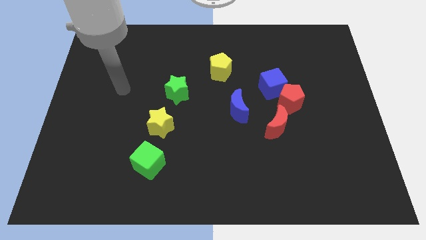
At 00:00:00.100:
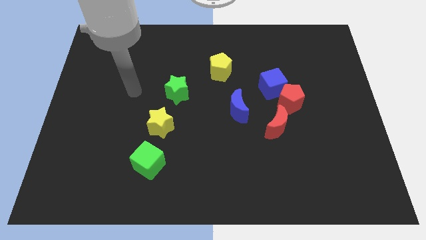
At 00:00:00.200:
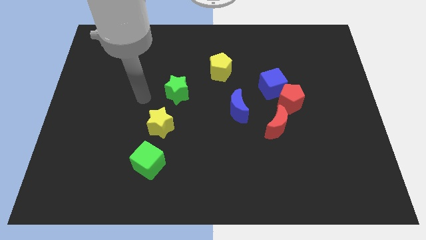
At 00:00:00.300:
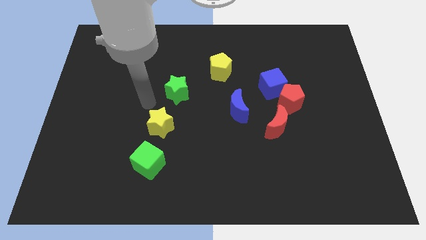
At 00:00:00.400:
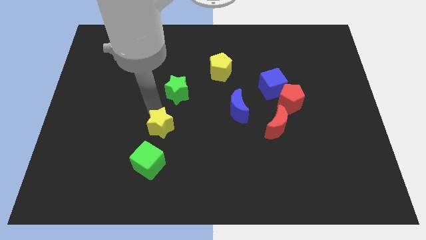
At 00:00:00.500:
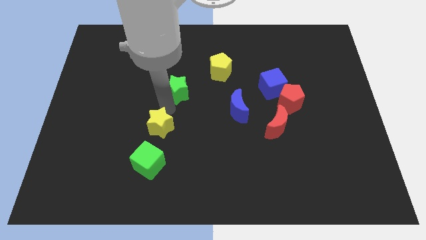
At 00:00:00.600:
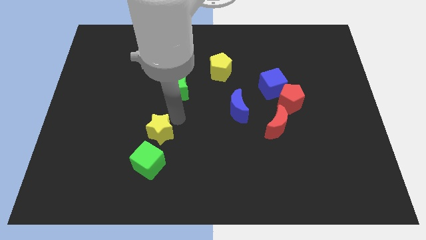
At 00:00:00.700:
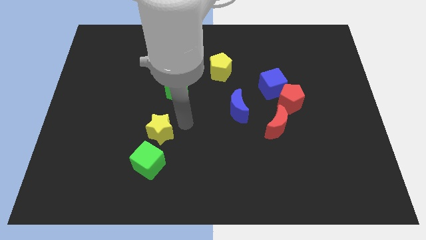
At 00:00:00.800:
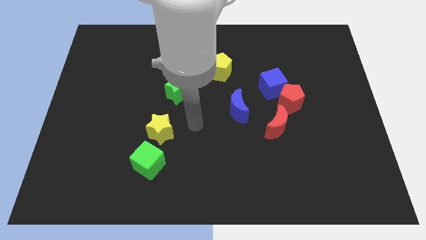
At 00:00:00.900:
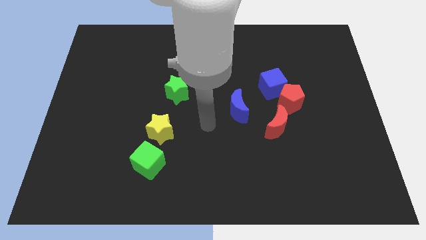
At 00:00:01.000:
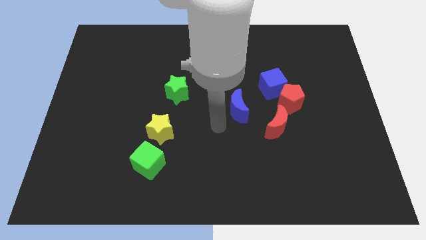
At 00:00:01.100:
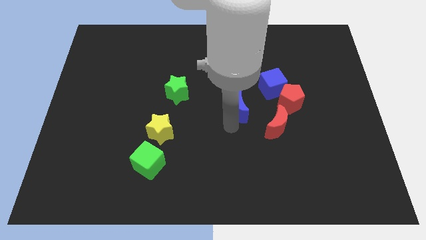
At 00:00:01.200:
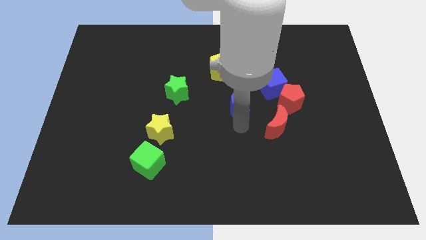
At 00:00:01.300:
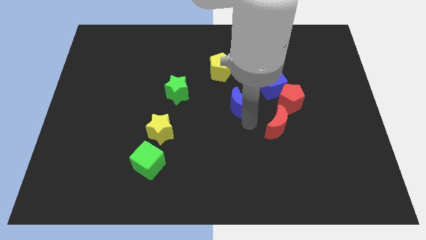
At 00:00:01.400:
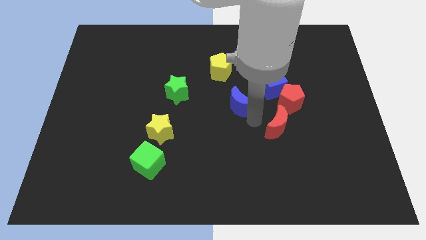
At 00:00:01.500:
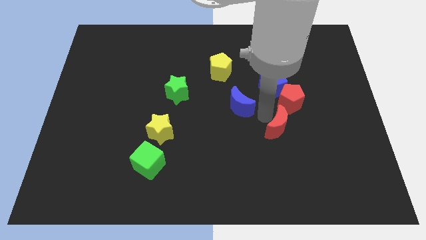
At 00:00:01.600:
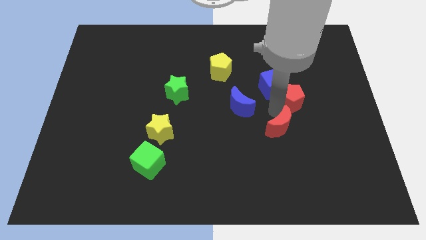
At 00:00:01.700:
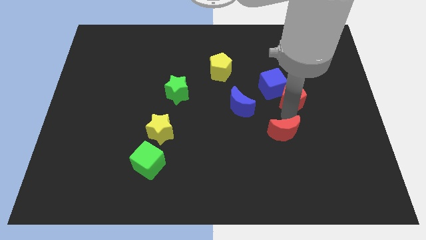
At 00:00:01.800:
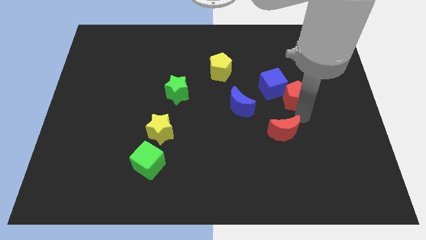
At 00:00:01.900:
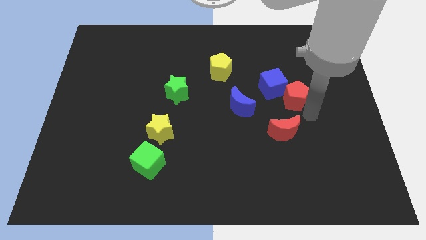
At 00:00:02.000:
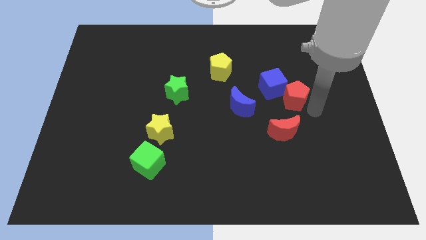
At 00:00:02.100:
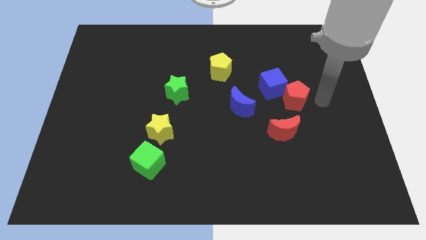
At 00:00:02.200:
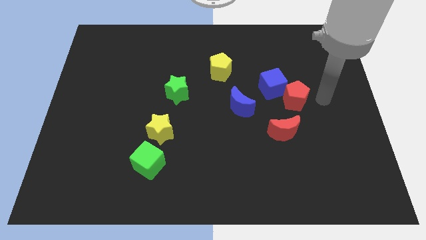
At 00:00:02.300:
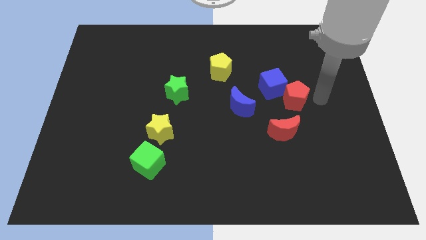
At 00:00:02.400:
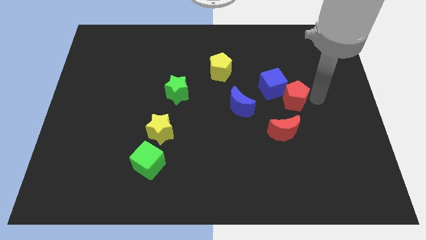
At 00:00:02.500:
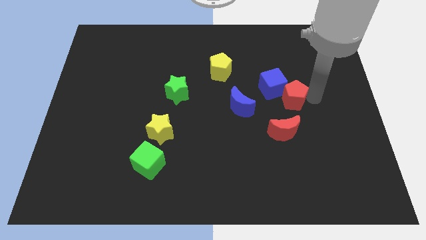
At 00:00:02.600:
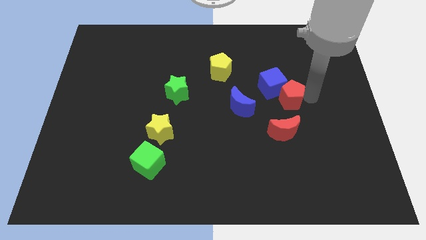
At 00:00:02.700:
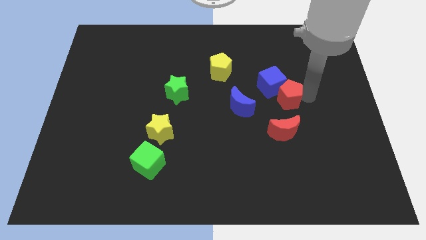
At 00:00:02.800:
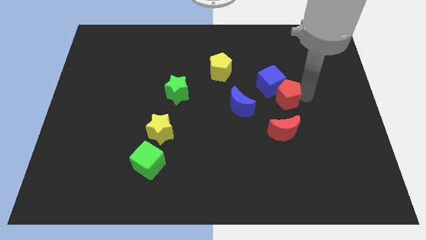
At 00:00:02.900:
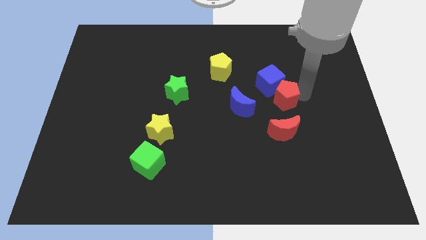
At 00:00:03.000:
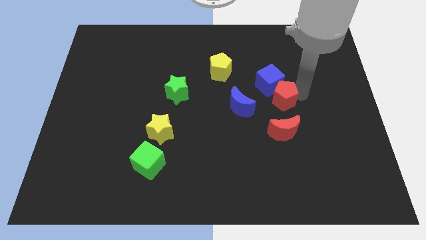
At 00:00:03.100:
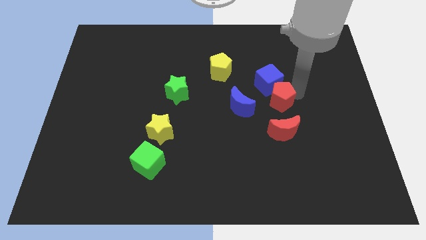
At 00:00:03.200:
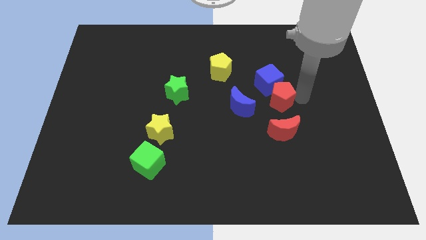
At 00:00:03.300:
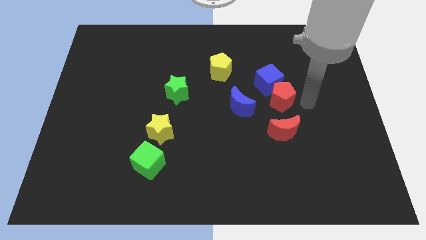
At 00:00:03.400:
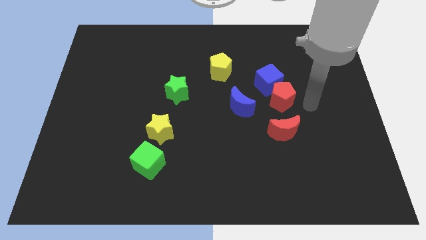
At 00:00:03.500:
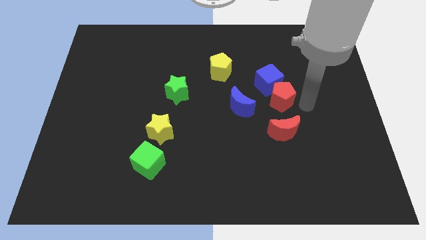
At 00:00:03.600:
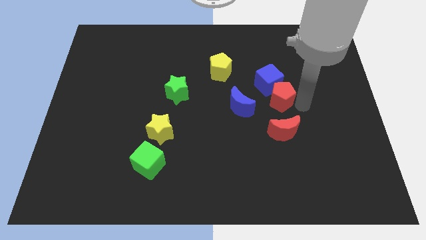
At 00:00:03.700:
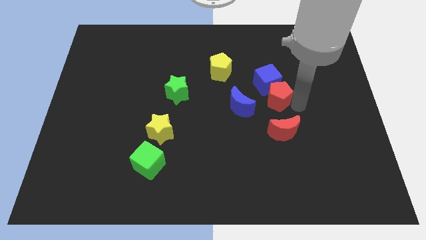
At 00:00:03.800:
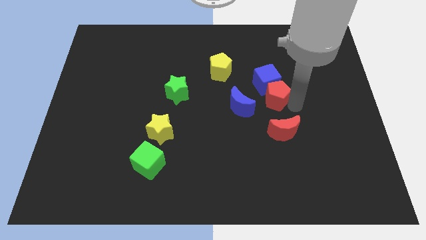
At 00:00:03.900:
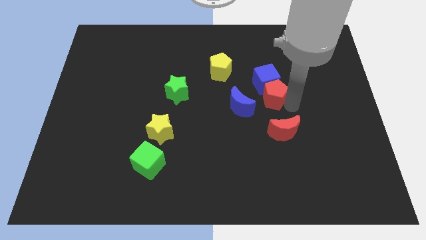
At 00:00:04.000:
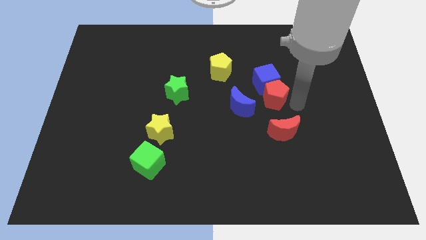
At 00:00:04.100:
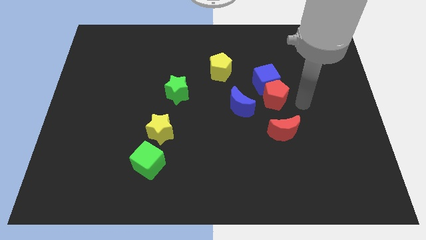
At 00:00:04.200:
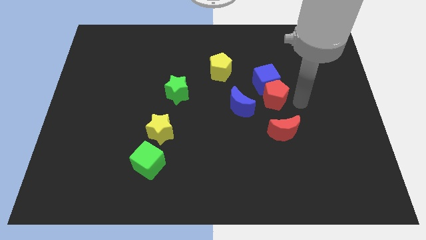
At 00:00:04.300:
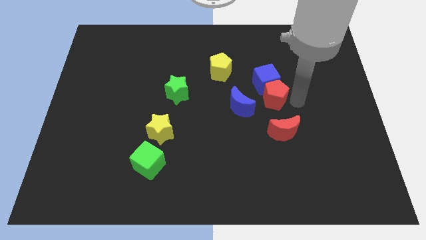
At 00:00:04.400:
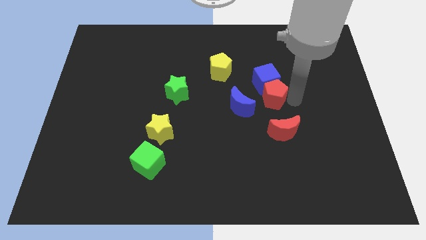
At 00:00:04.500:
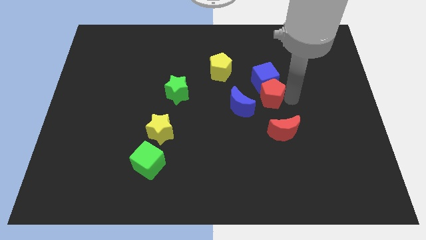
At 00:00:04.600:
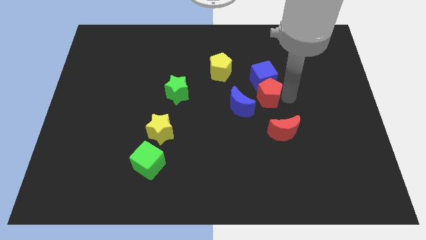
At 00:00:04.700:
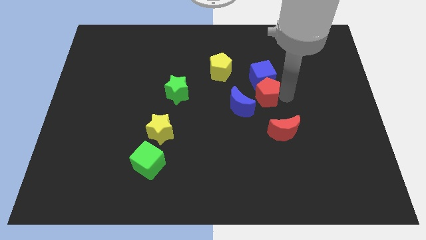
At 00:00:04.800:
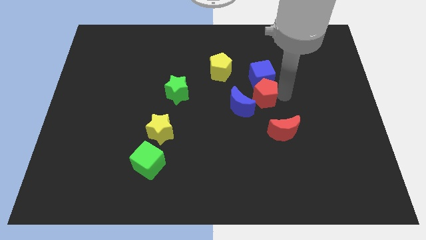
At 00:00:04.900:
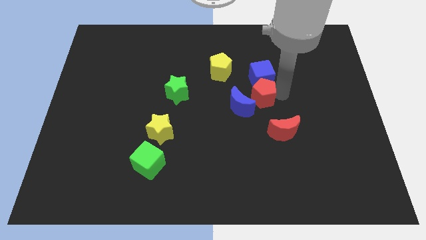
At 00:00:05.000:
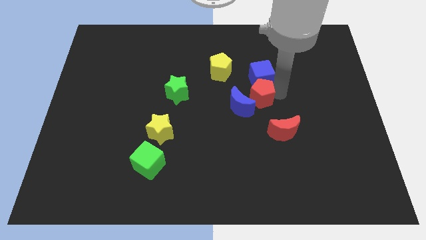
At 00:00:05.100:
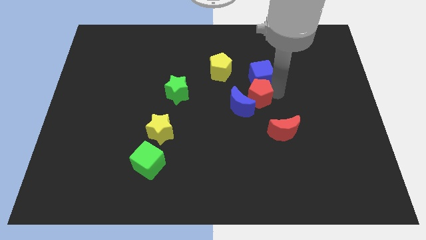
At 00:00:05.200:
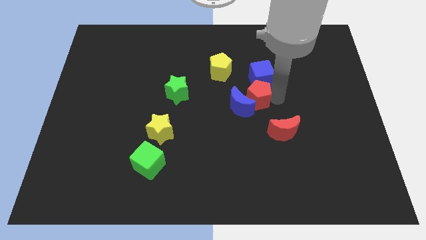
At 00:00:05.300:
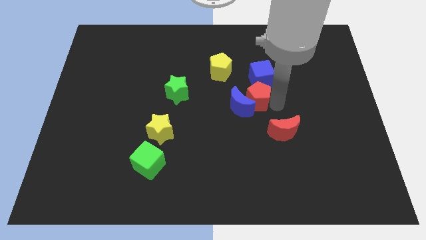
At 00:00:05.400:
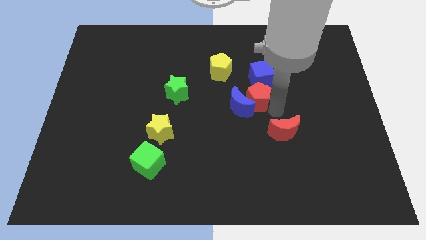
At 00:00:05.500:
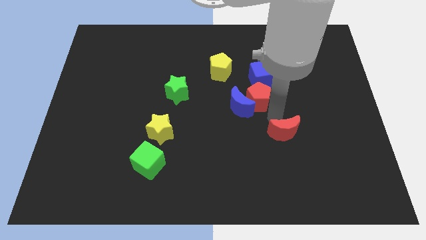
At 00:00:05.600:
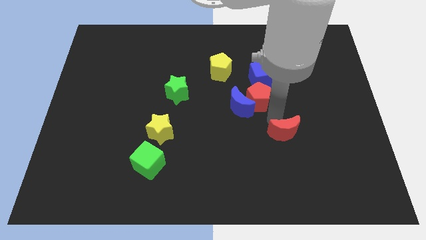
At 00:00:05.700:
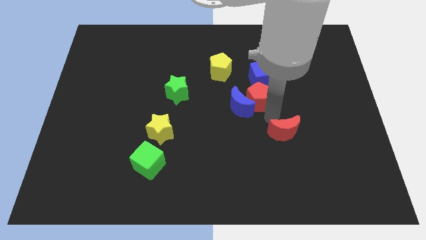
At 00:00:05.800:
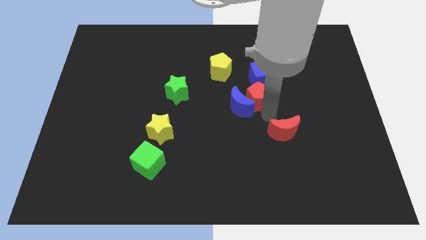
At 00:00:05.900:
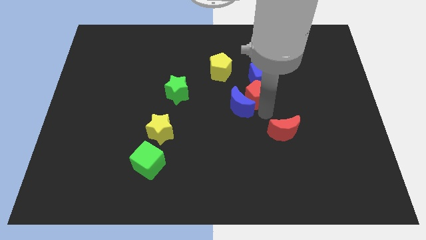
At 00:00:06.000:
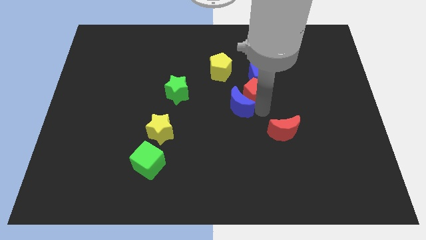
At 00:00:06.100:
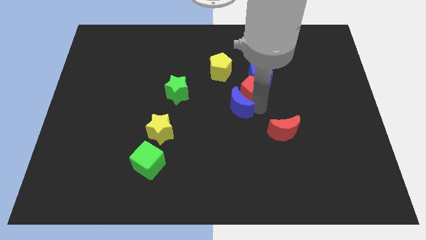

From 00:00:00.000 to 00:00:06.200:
move the red pentagon slightly upwards and to the left diagonally

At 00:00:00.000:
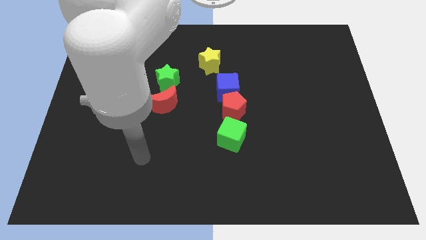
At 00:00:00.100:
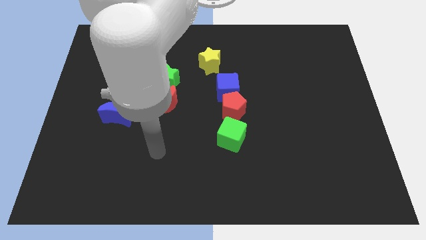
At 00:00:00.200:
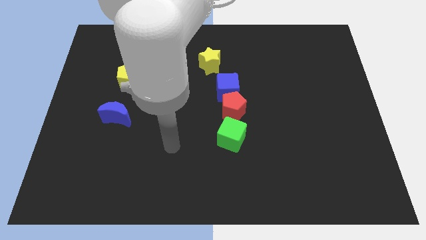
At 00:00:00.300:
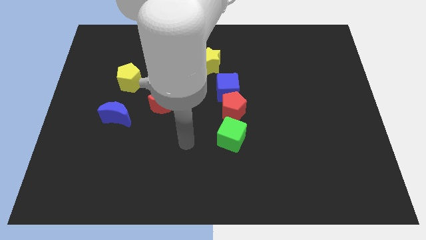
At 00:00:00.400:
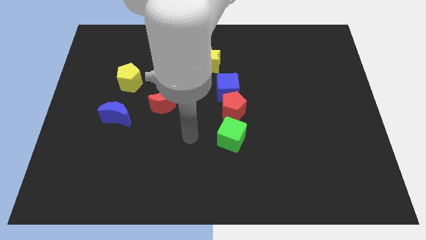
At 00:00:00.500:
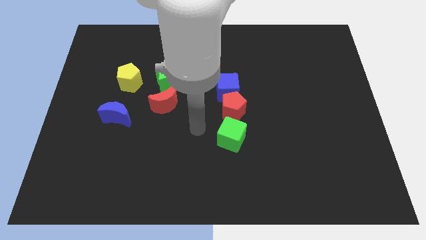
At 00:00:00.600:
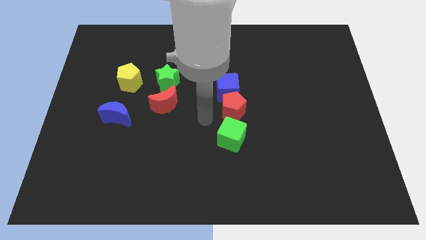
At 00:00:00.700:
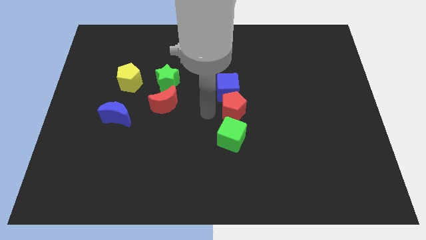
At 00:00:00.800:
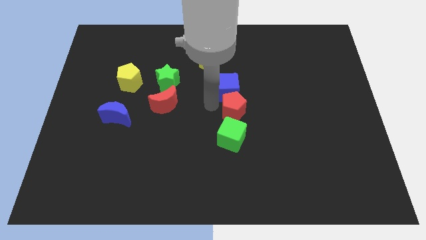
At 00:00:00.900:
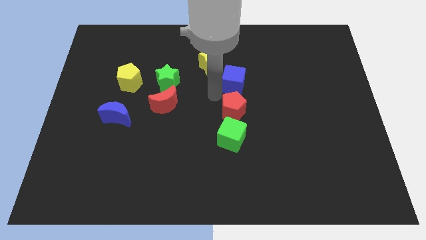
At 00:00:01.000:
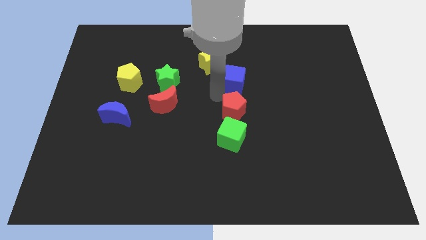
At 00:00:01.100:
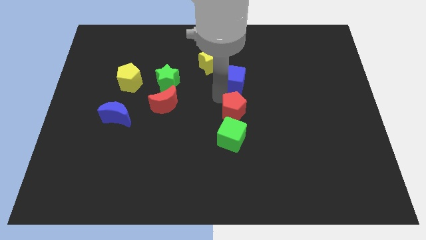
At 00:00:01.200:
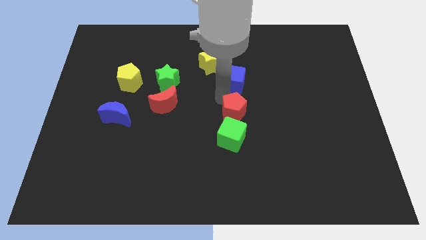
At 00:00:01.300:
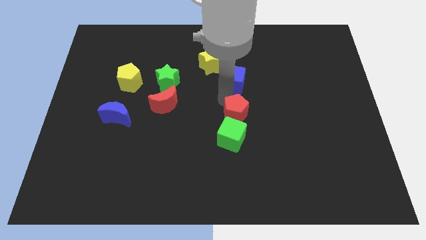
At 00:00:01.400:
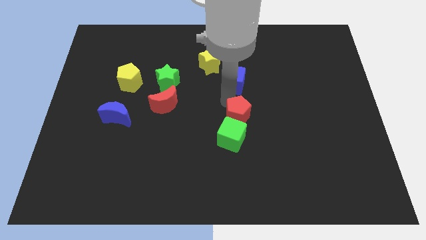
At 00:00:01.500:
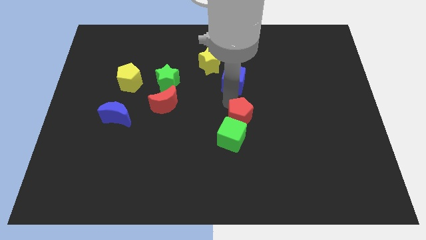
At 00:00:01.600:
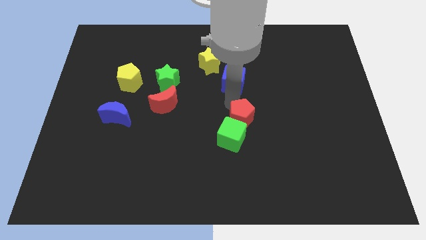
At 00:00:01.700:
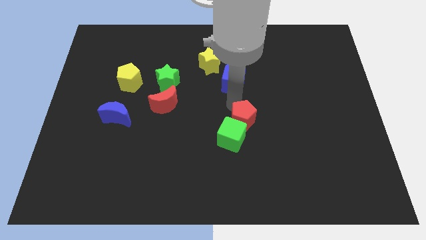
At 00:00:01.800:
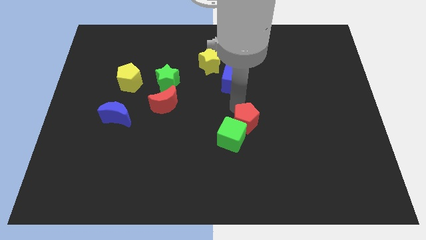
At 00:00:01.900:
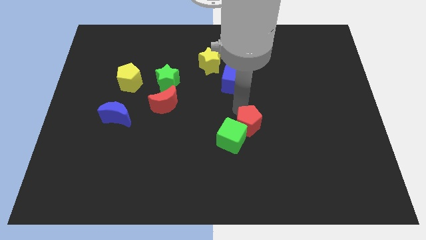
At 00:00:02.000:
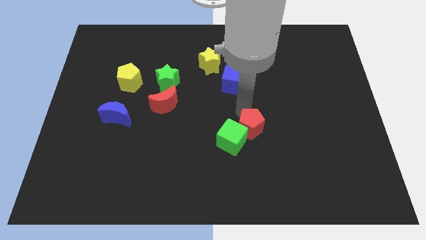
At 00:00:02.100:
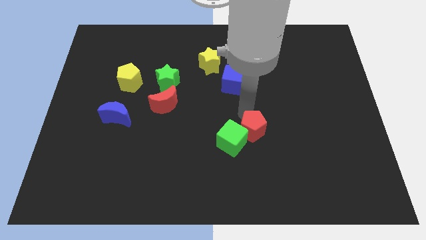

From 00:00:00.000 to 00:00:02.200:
slide the red pentagon a bit downwards and to the right diagonally
